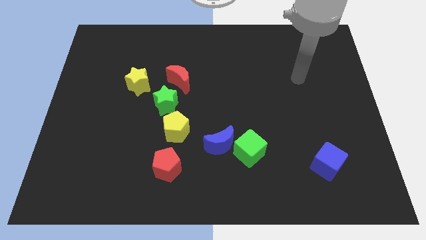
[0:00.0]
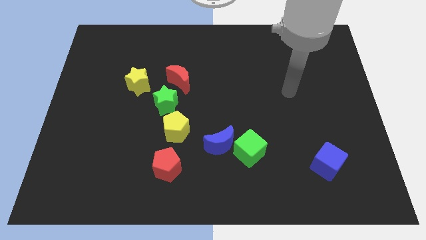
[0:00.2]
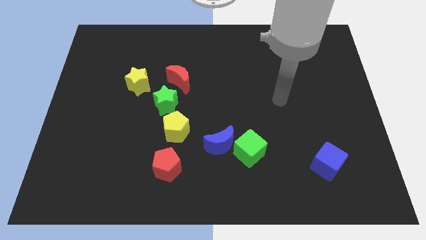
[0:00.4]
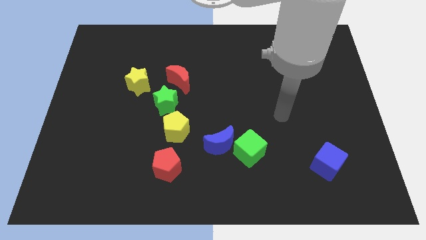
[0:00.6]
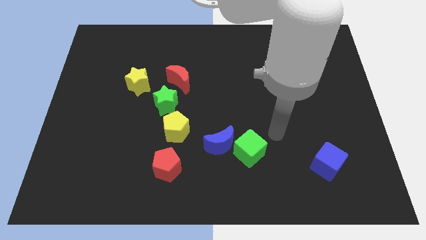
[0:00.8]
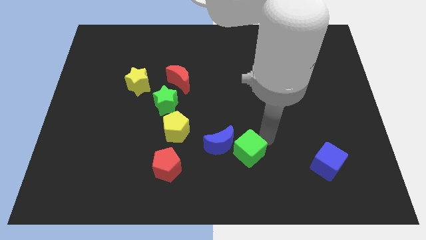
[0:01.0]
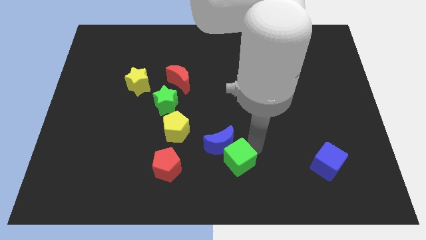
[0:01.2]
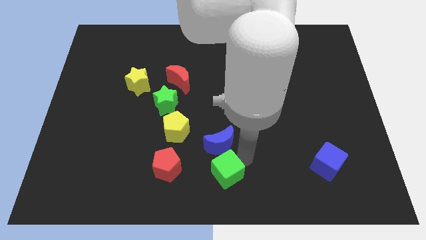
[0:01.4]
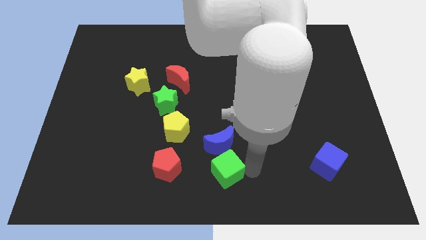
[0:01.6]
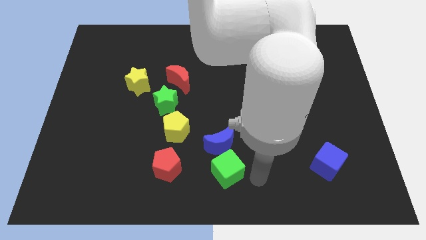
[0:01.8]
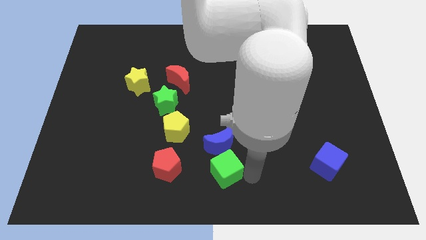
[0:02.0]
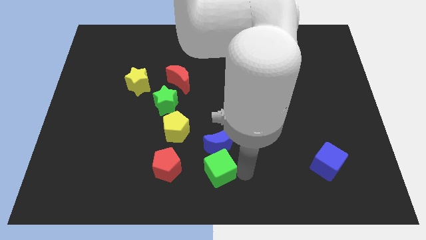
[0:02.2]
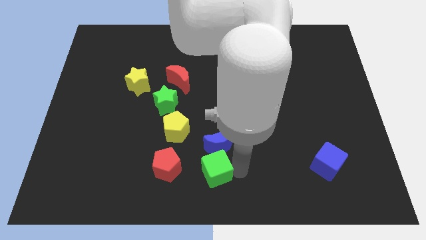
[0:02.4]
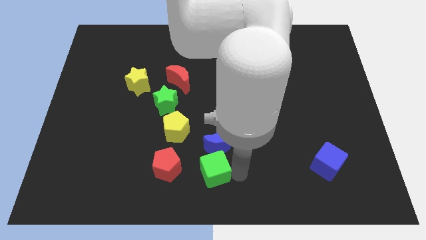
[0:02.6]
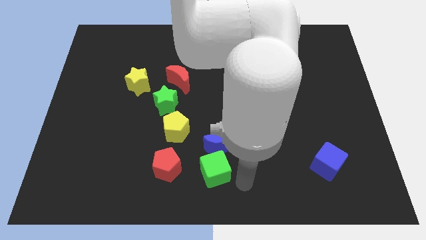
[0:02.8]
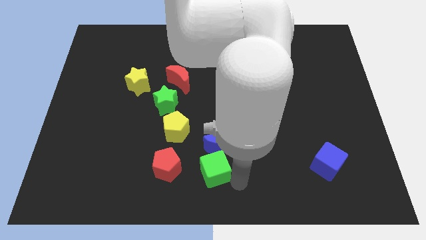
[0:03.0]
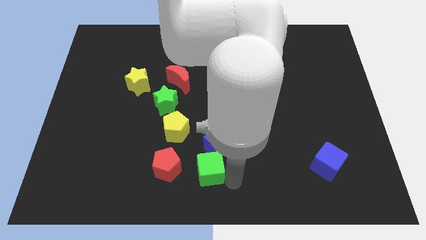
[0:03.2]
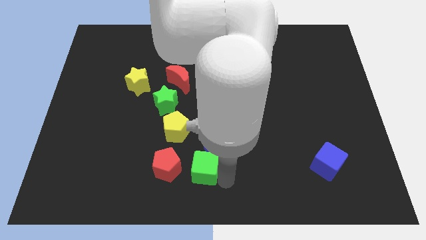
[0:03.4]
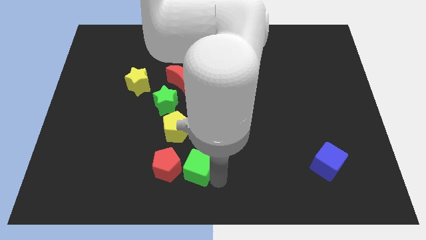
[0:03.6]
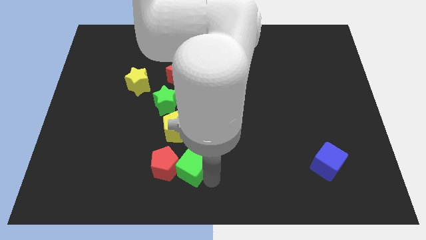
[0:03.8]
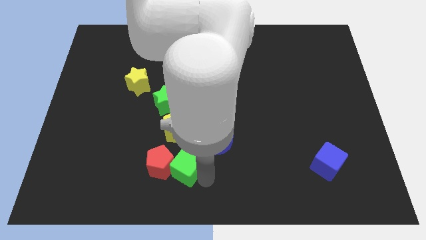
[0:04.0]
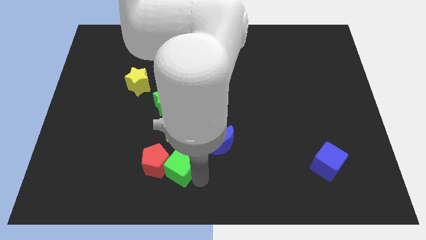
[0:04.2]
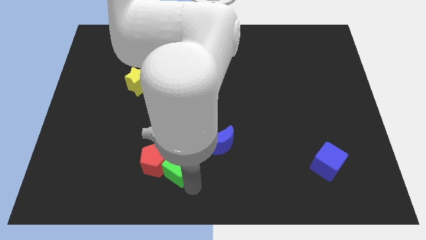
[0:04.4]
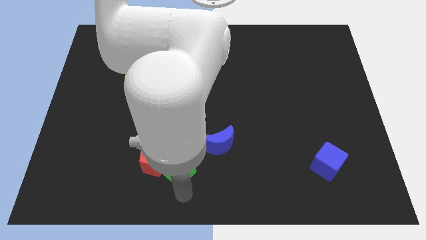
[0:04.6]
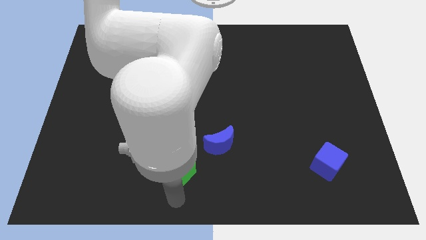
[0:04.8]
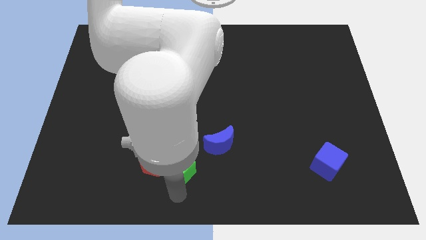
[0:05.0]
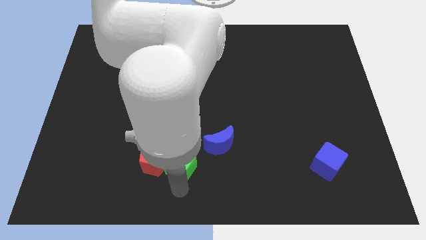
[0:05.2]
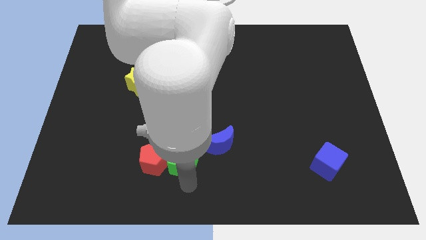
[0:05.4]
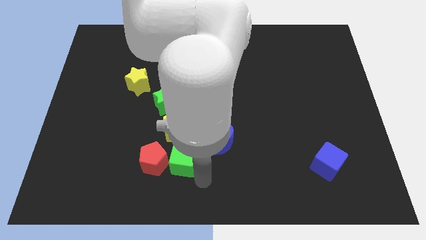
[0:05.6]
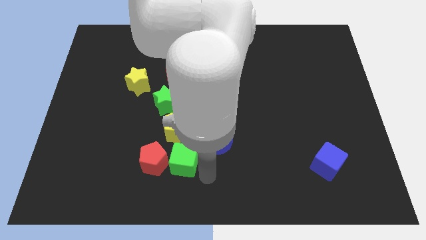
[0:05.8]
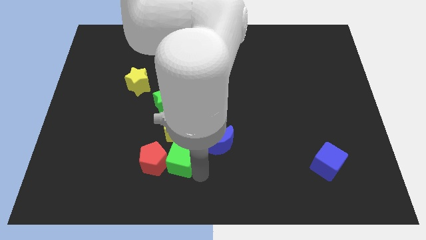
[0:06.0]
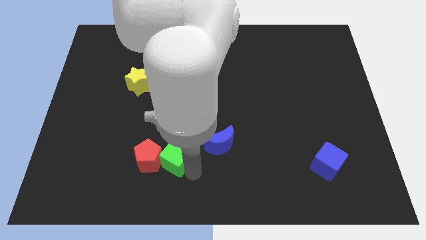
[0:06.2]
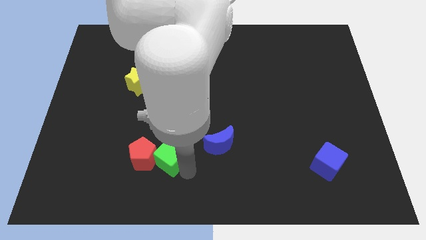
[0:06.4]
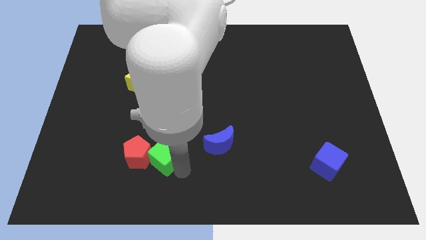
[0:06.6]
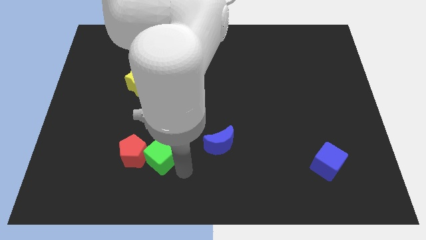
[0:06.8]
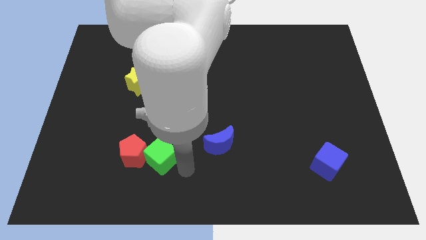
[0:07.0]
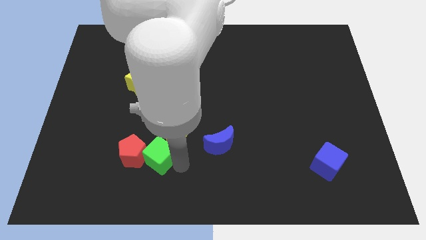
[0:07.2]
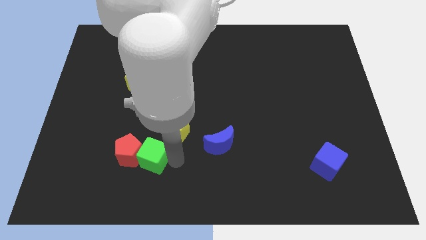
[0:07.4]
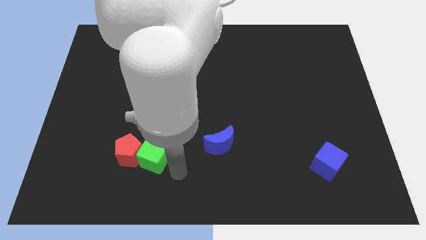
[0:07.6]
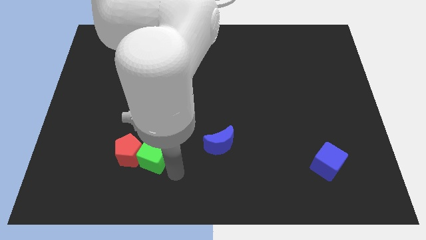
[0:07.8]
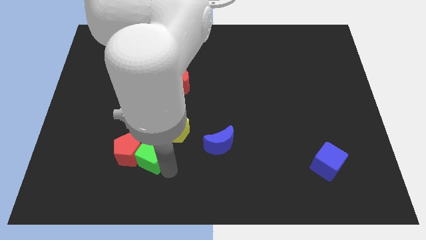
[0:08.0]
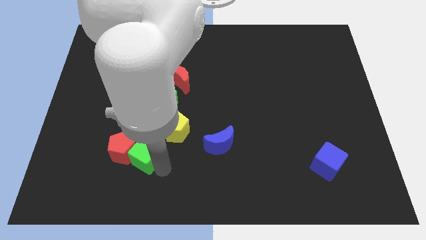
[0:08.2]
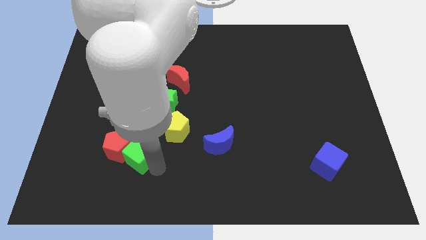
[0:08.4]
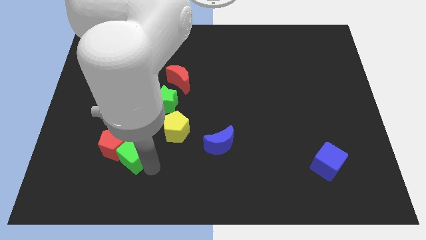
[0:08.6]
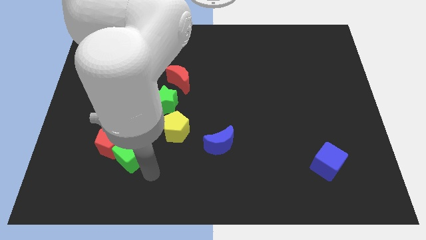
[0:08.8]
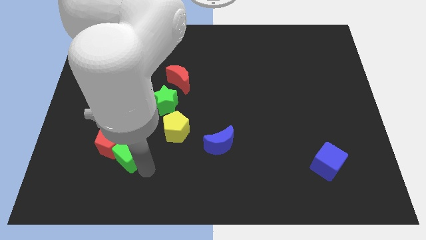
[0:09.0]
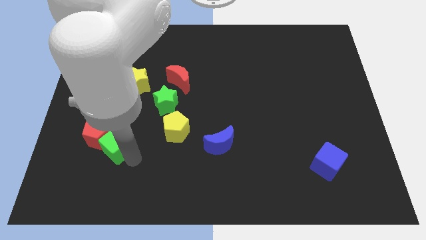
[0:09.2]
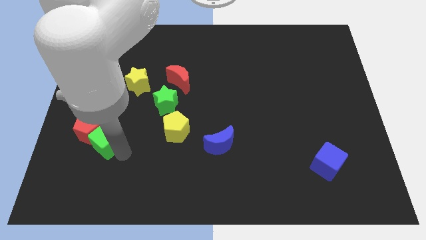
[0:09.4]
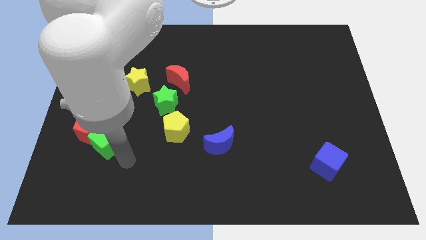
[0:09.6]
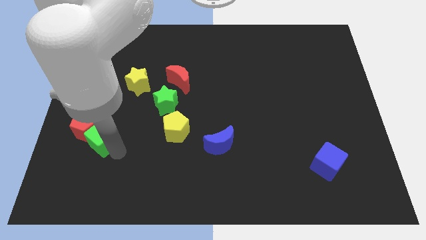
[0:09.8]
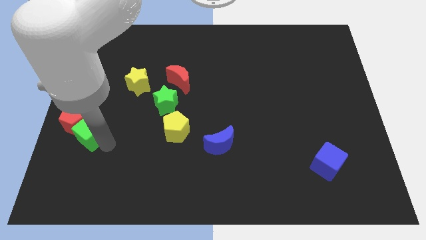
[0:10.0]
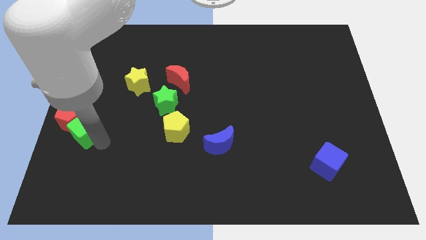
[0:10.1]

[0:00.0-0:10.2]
put the green cube to the center left

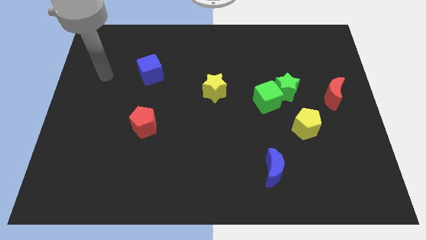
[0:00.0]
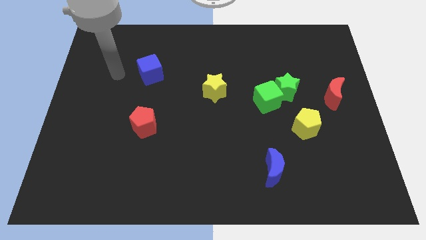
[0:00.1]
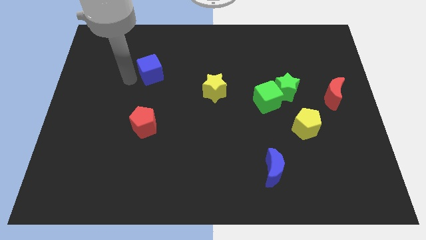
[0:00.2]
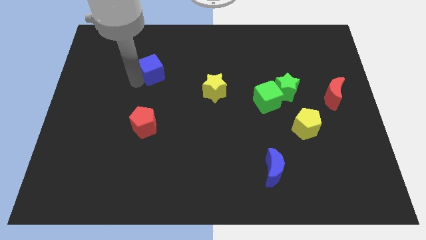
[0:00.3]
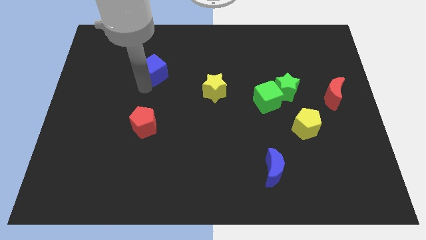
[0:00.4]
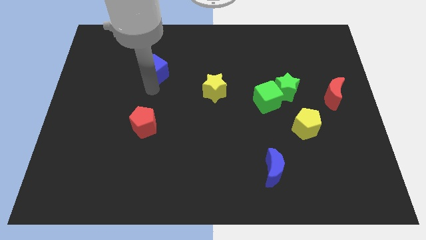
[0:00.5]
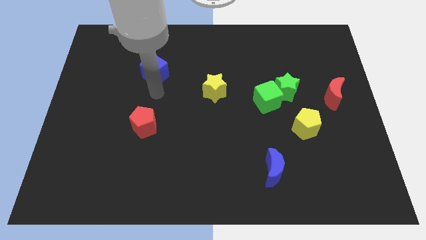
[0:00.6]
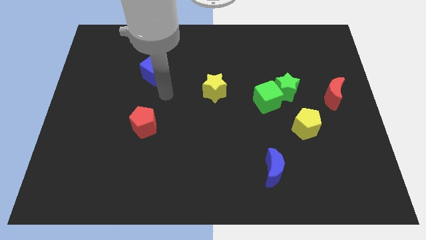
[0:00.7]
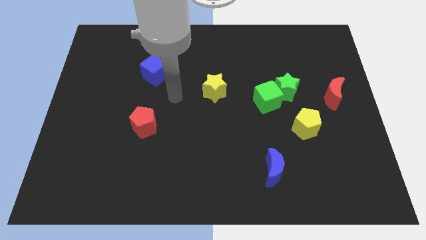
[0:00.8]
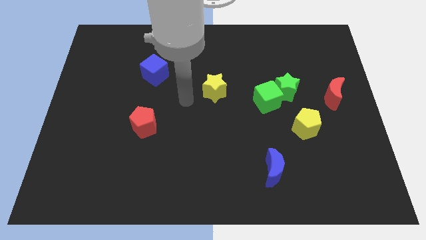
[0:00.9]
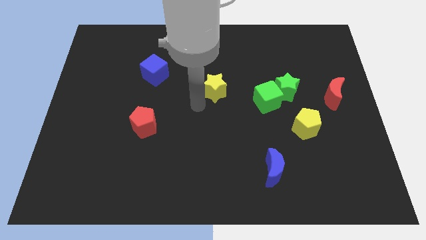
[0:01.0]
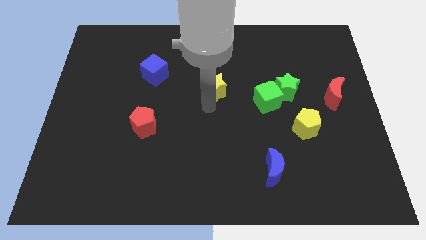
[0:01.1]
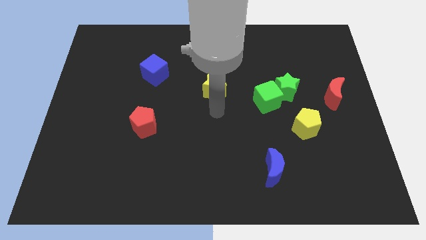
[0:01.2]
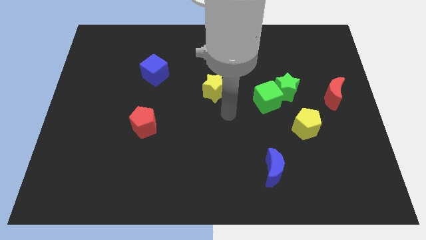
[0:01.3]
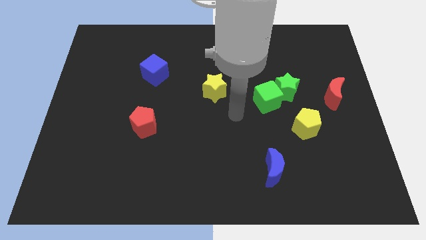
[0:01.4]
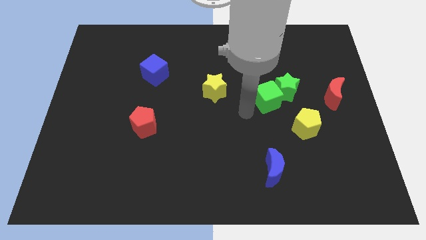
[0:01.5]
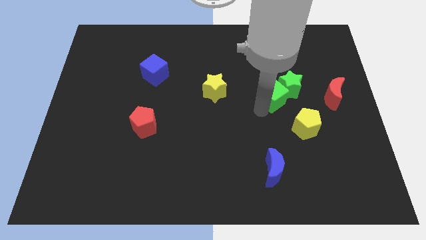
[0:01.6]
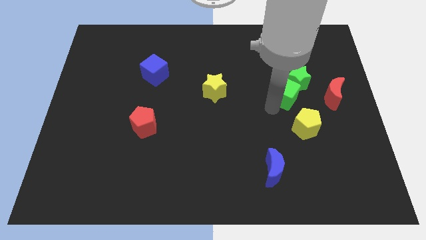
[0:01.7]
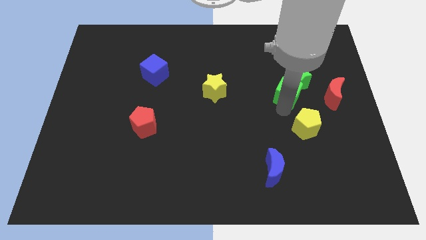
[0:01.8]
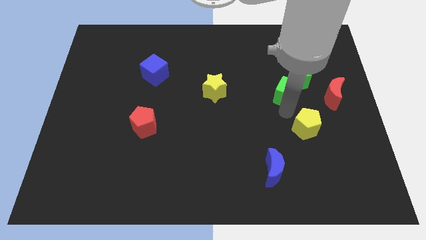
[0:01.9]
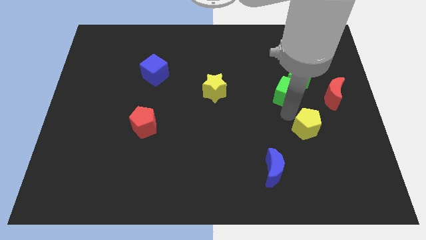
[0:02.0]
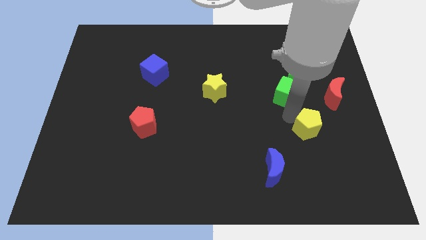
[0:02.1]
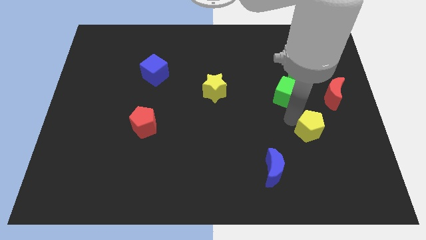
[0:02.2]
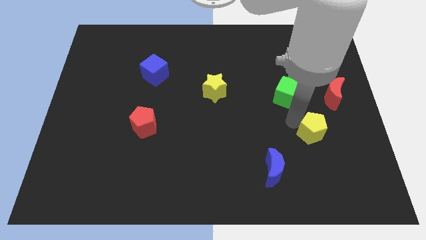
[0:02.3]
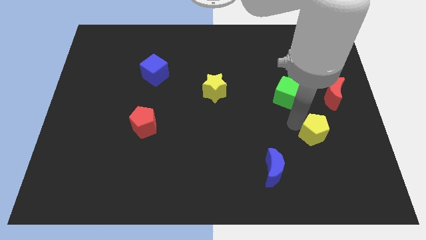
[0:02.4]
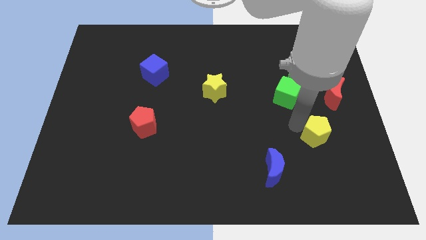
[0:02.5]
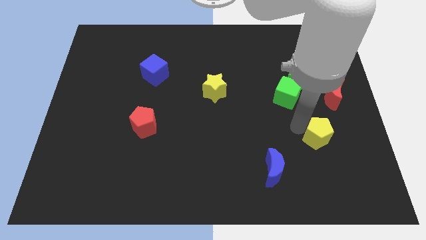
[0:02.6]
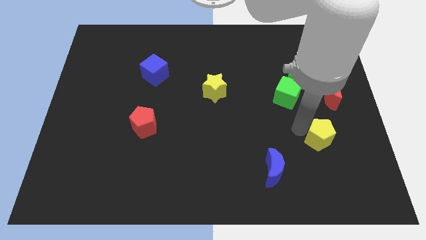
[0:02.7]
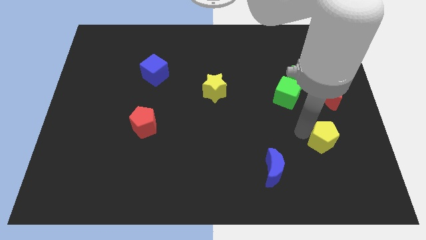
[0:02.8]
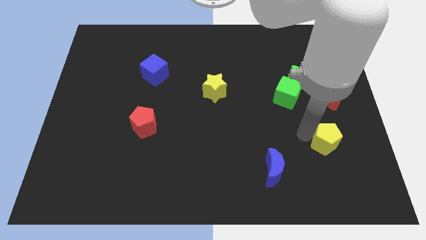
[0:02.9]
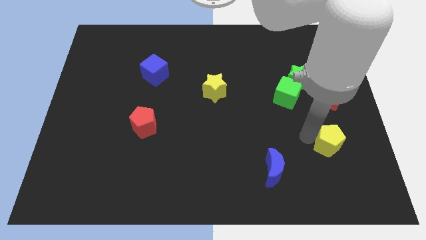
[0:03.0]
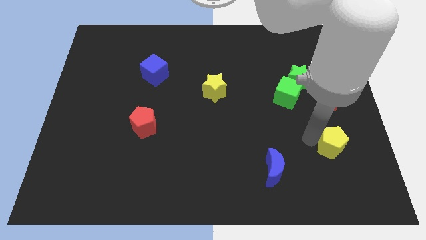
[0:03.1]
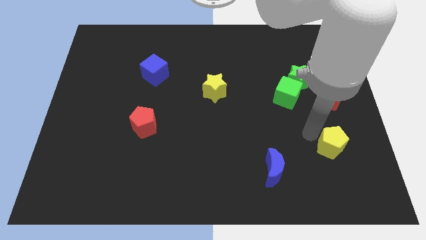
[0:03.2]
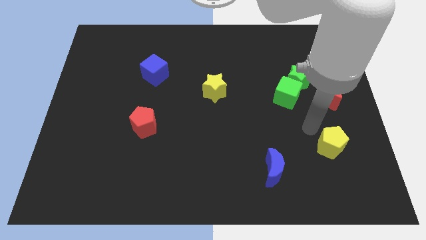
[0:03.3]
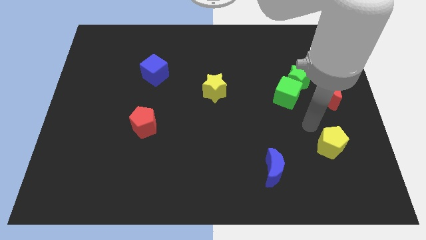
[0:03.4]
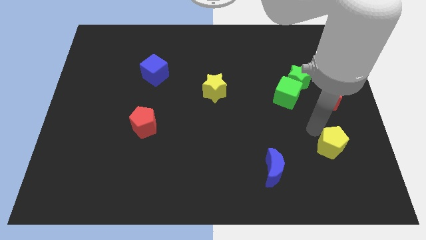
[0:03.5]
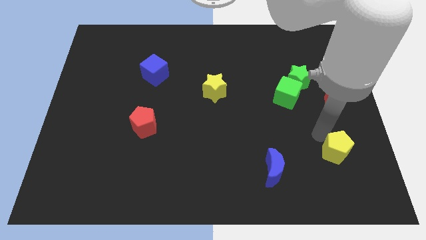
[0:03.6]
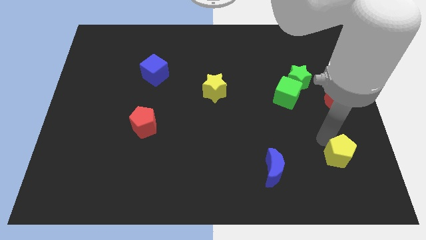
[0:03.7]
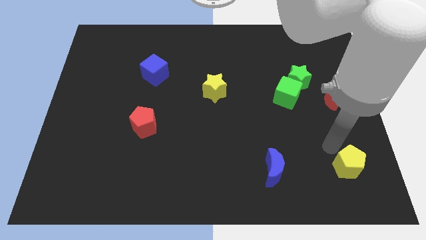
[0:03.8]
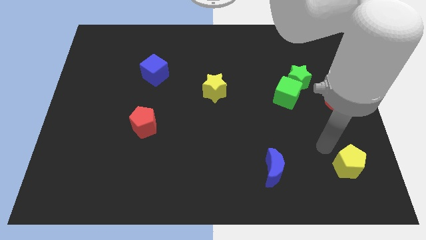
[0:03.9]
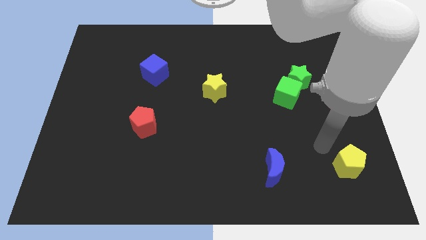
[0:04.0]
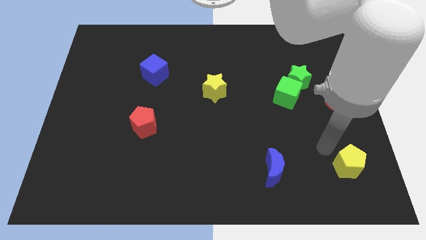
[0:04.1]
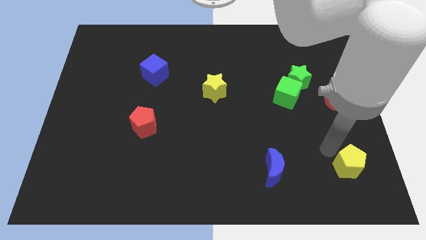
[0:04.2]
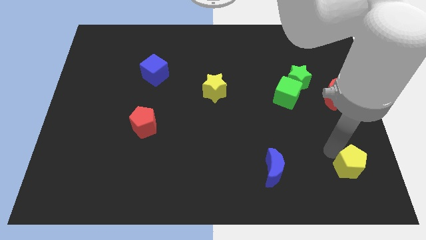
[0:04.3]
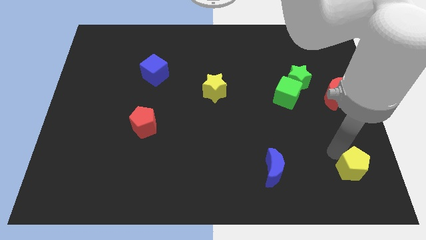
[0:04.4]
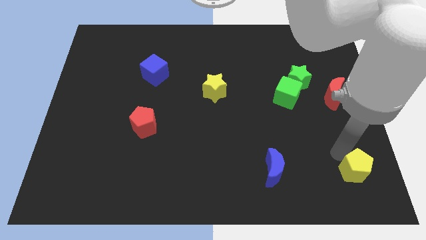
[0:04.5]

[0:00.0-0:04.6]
move the yellow pentagon to the bottom right
